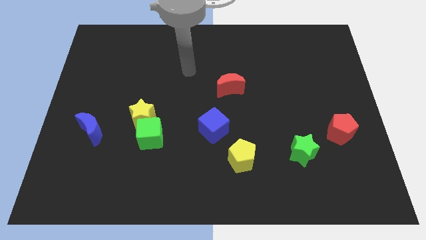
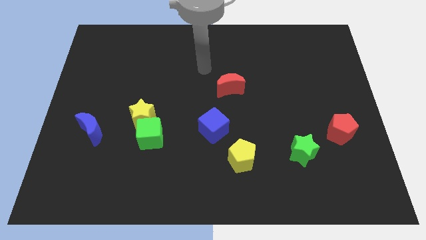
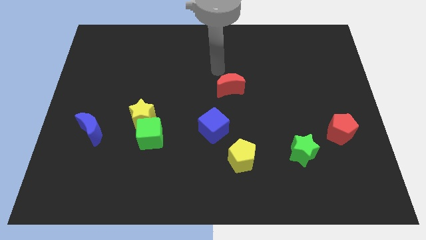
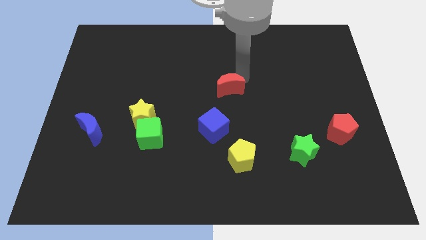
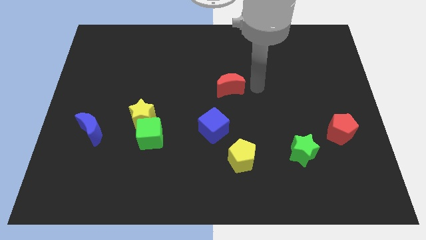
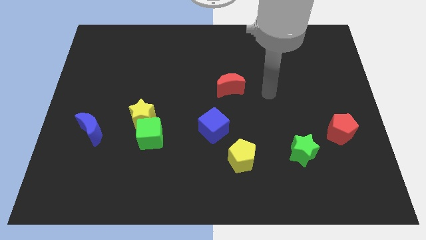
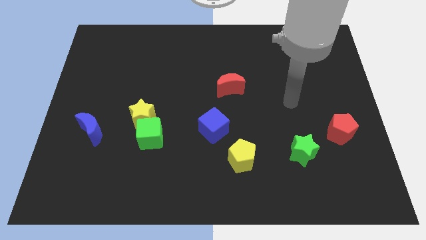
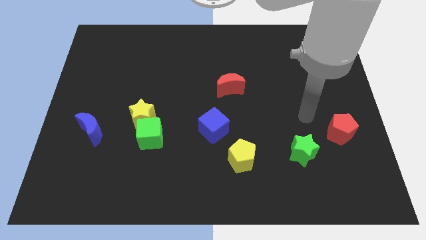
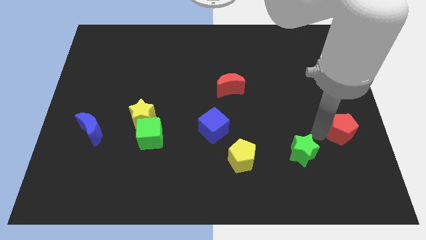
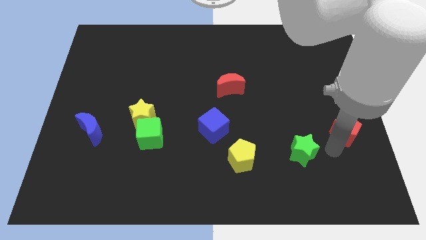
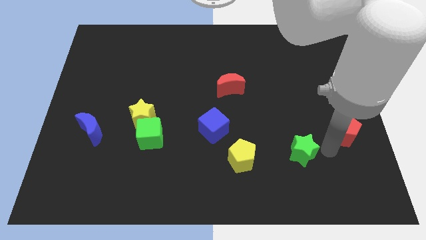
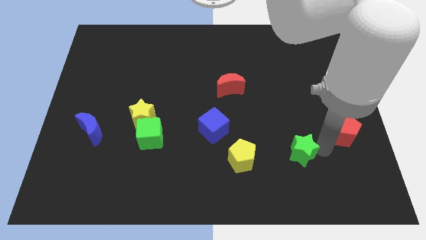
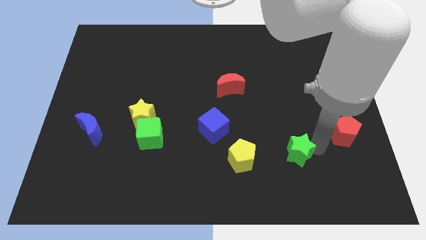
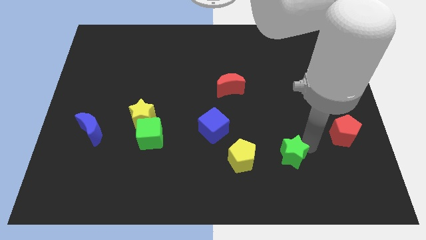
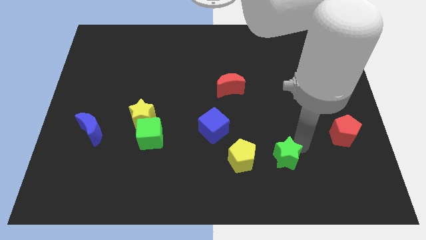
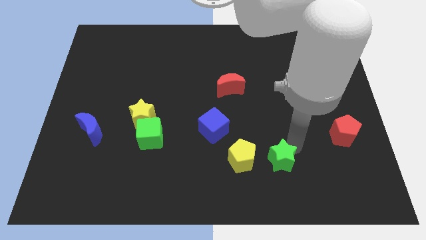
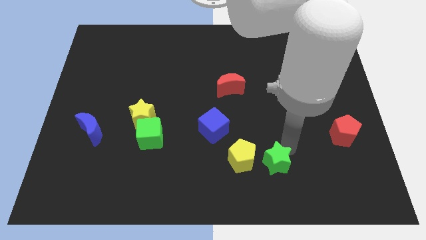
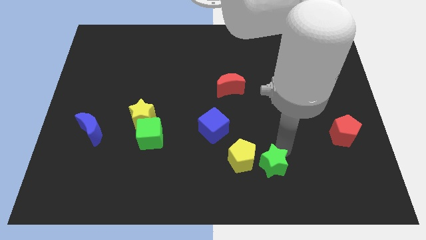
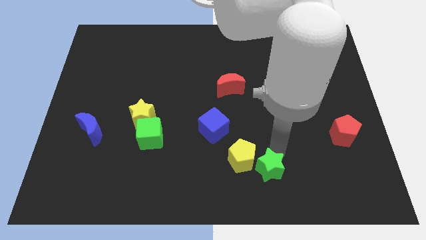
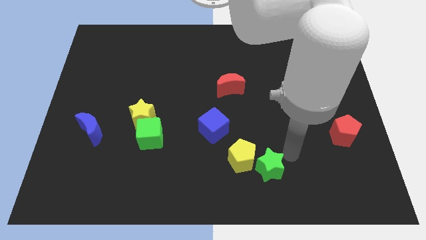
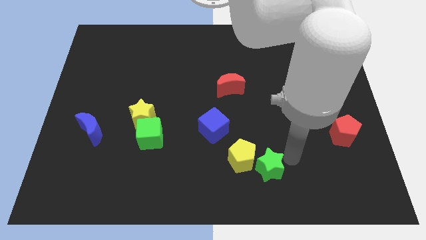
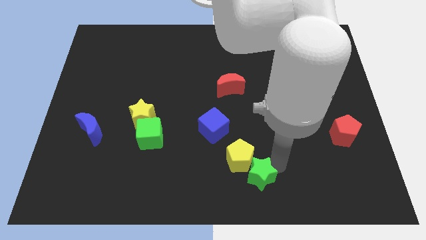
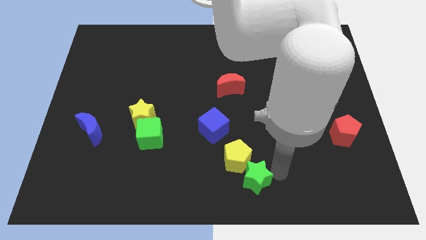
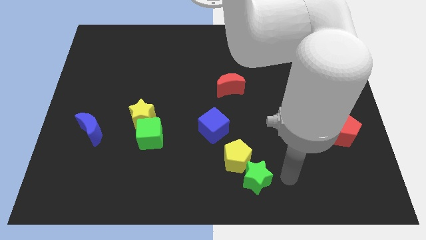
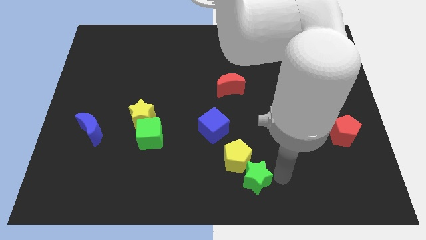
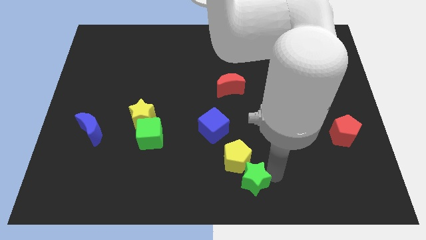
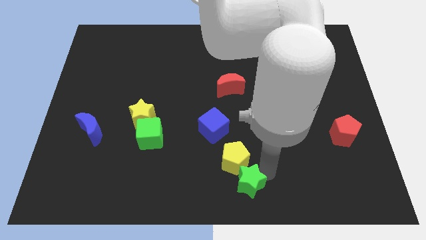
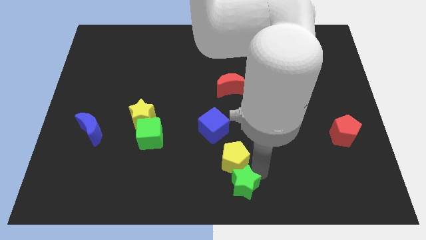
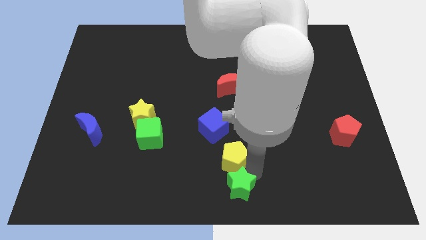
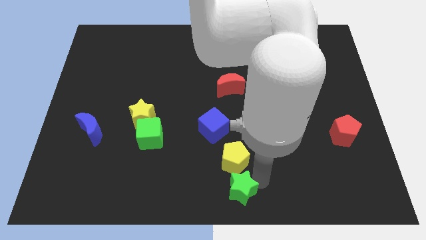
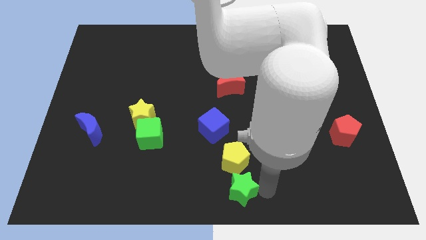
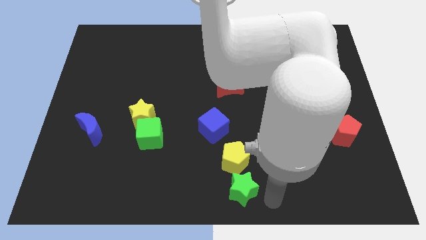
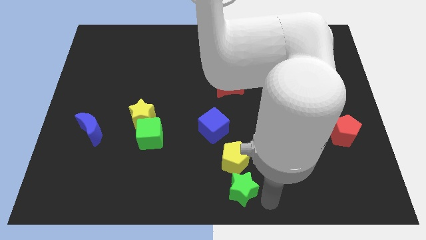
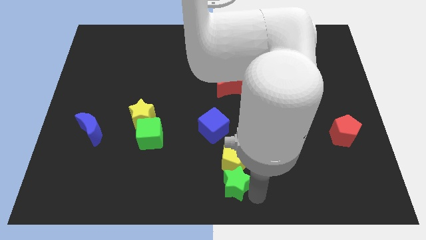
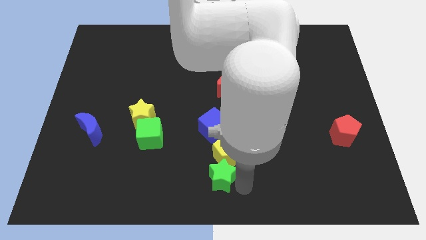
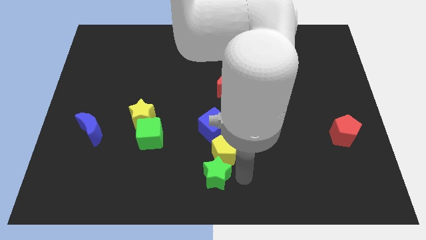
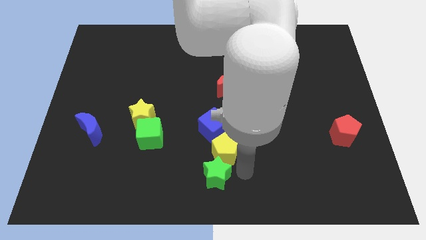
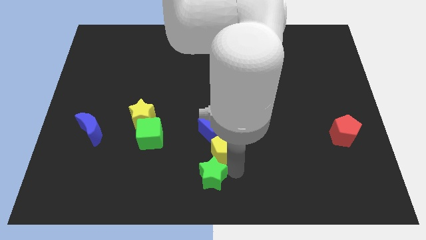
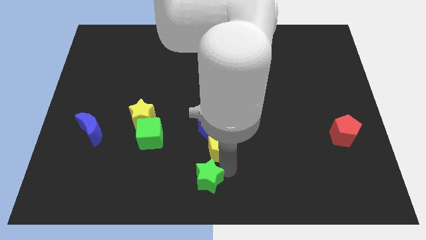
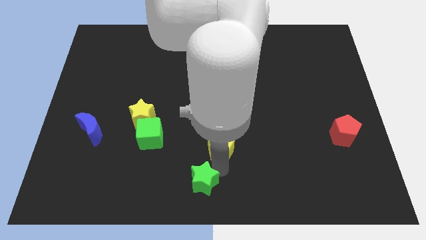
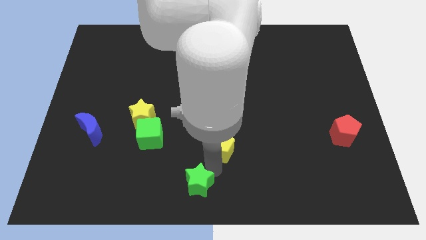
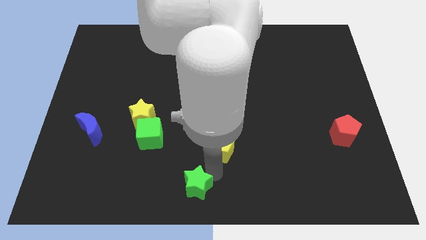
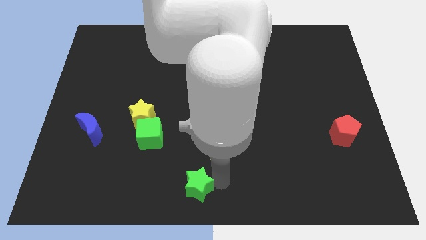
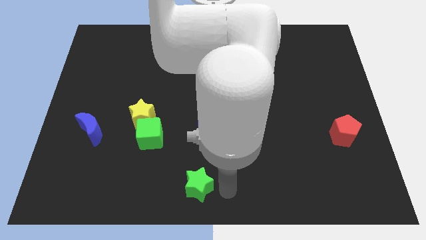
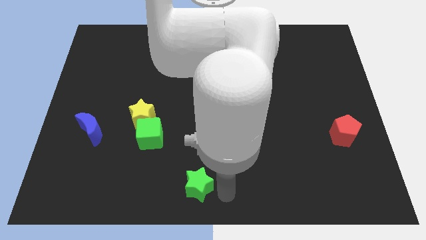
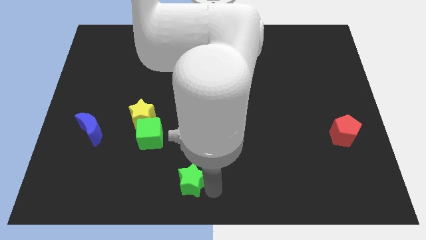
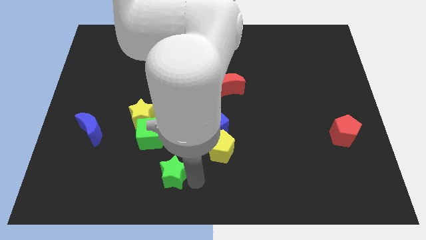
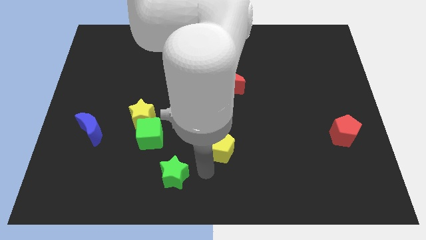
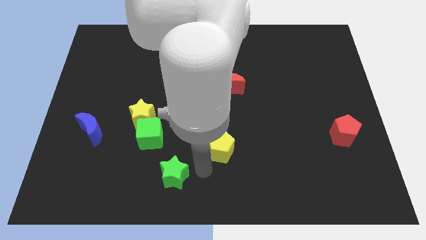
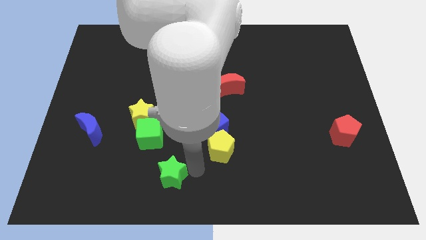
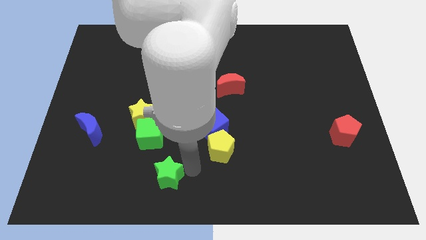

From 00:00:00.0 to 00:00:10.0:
push the green star to the bottom of the green cube

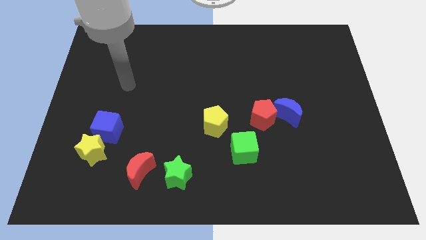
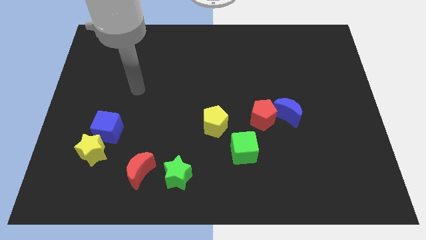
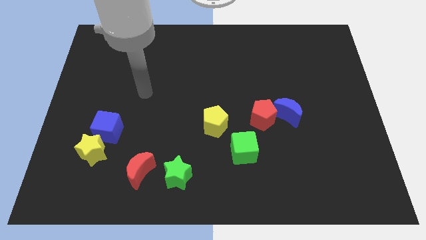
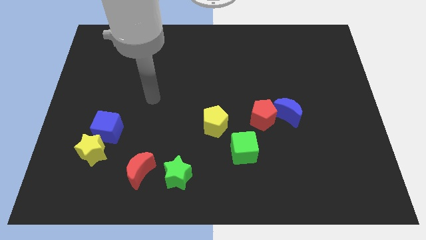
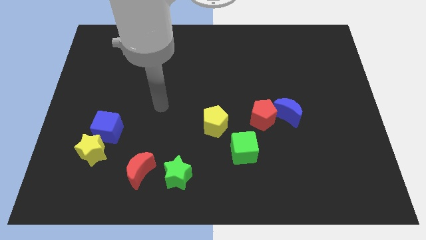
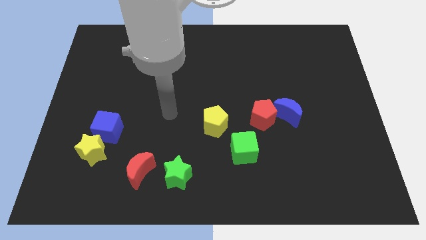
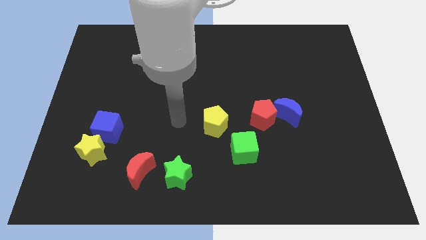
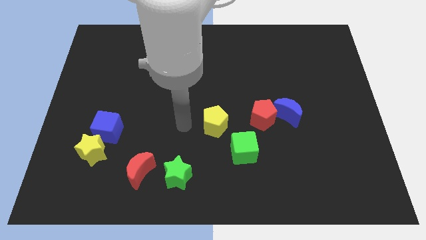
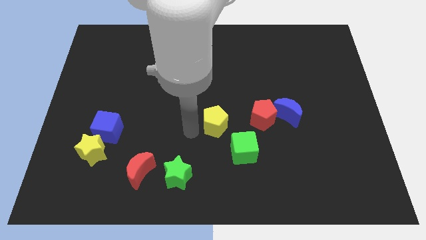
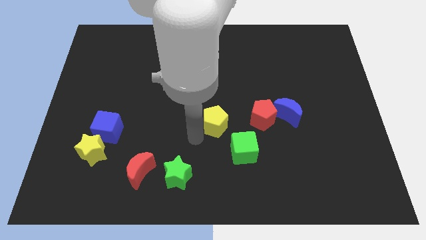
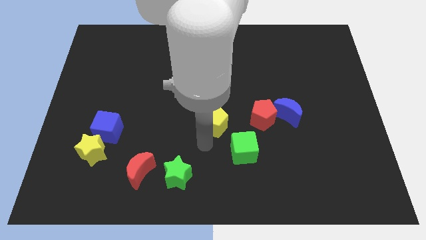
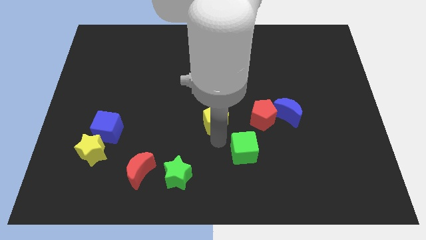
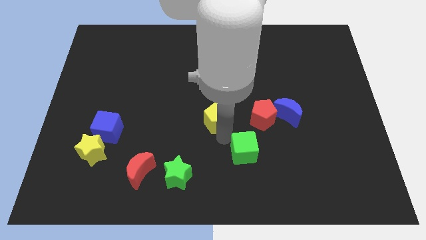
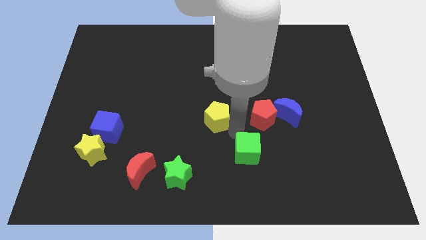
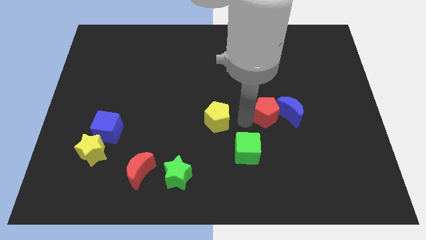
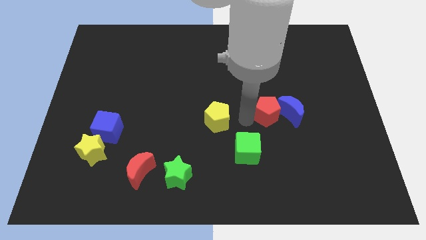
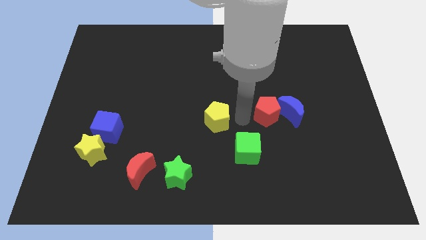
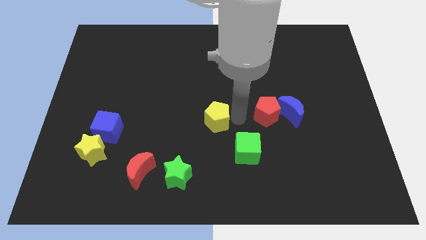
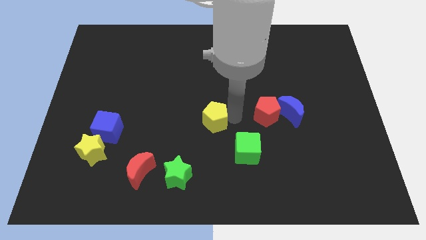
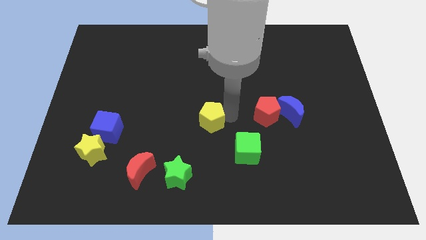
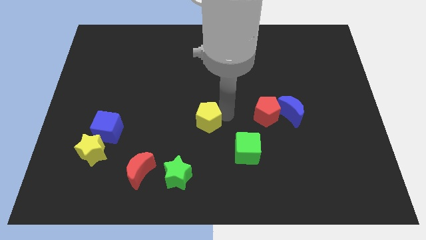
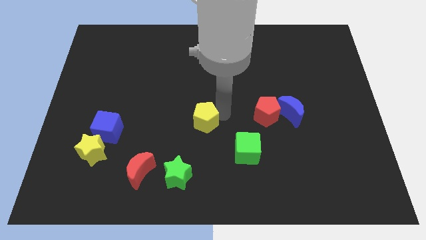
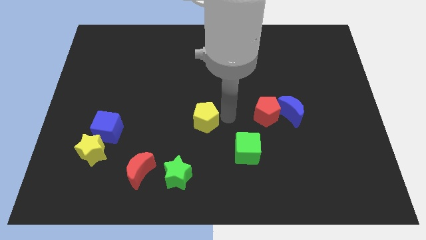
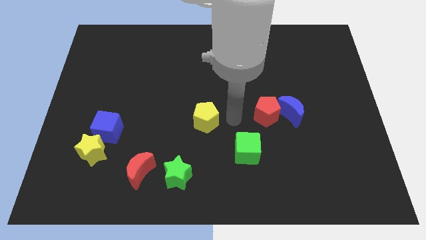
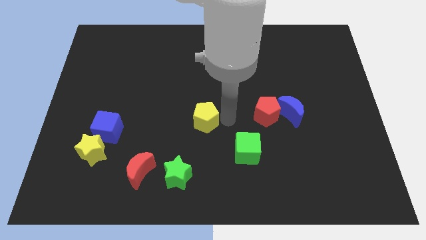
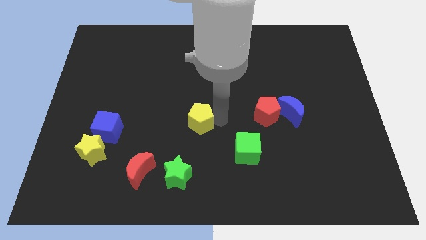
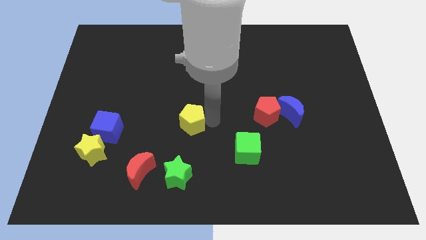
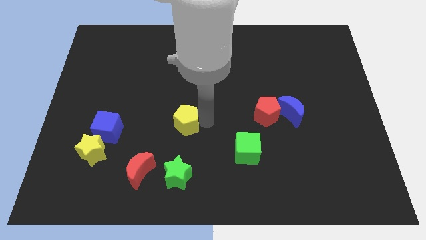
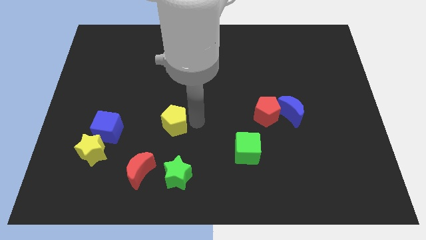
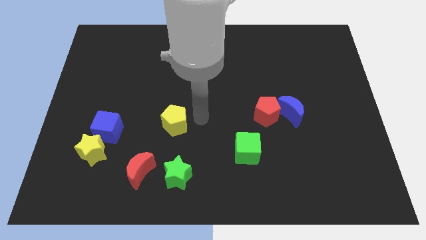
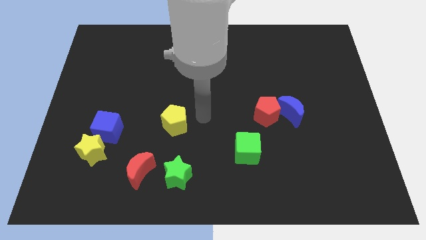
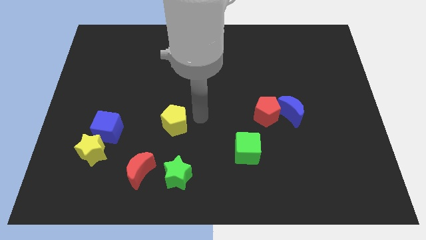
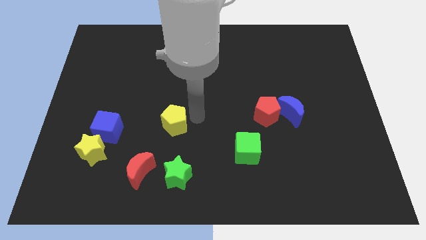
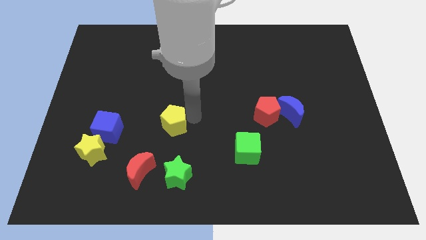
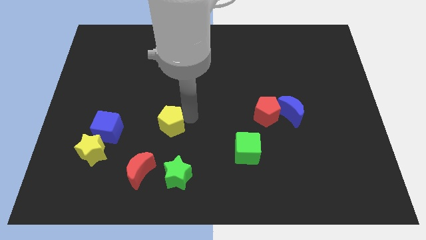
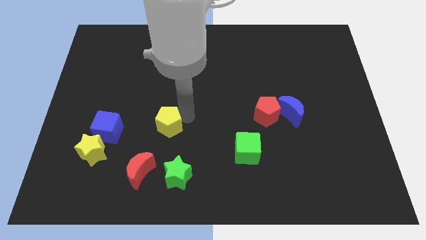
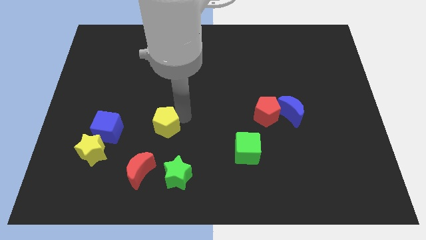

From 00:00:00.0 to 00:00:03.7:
slide the yellow pentagon to the top of the red moon
